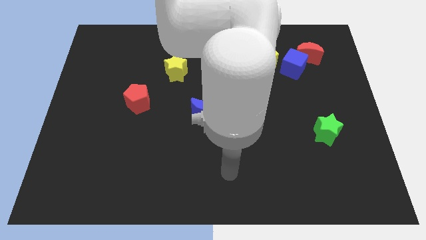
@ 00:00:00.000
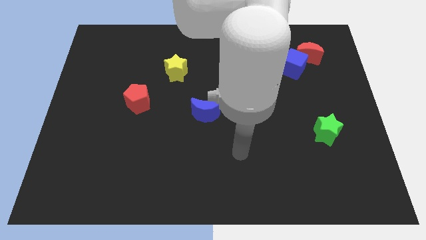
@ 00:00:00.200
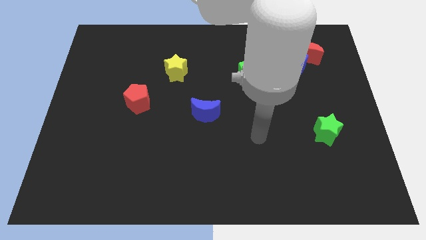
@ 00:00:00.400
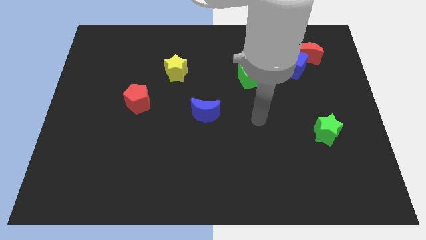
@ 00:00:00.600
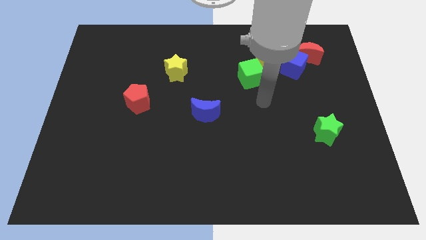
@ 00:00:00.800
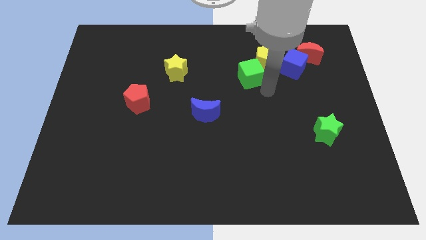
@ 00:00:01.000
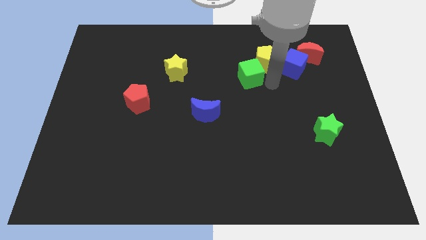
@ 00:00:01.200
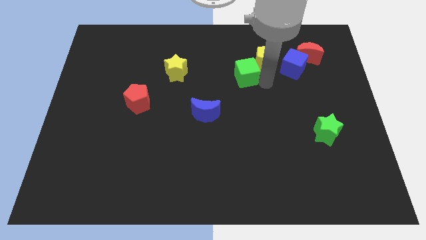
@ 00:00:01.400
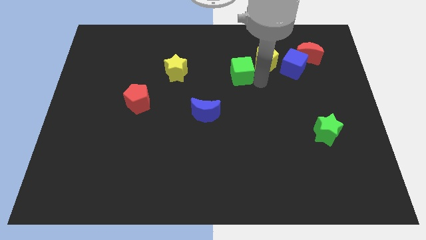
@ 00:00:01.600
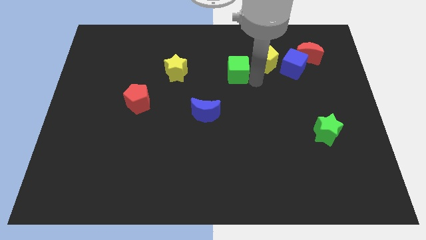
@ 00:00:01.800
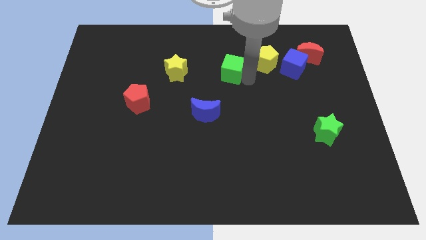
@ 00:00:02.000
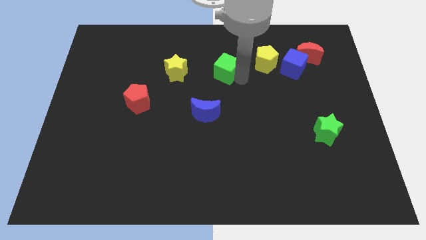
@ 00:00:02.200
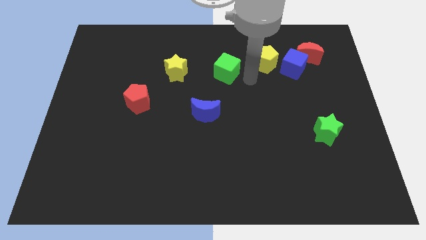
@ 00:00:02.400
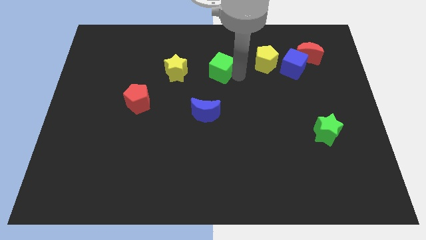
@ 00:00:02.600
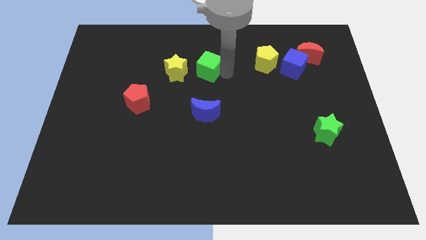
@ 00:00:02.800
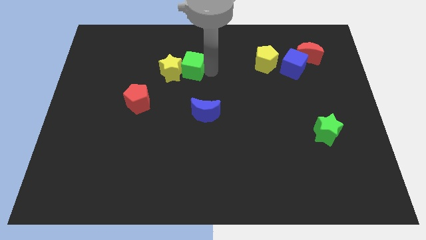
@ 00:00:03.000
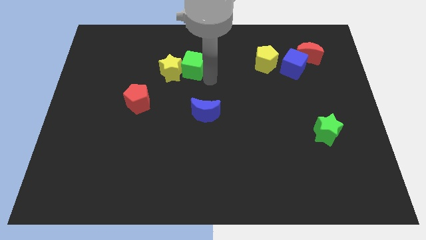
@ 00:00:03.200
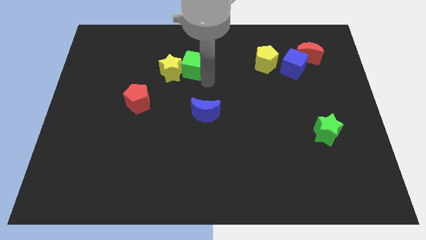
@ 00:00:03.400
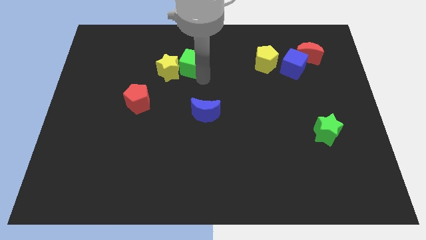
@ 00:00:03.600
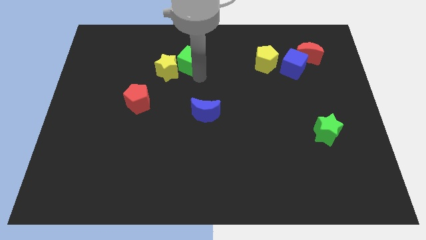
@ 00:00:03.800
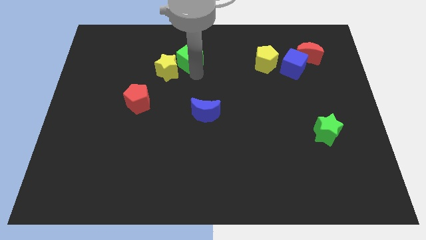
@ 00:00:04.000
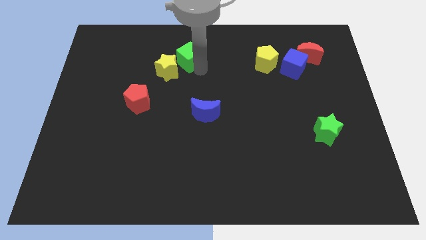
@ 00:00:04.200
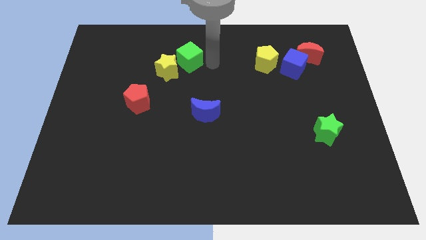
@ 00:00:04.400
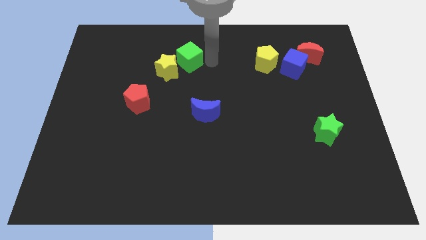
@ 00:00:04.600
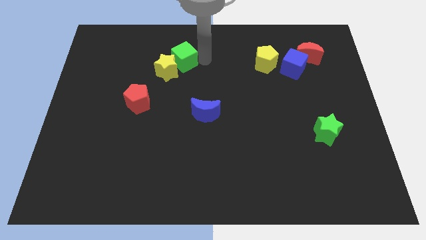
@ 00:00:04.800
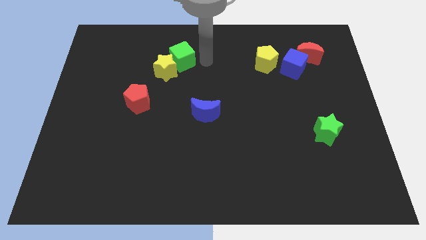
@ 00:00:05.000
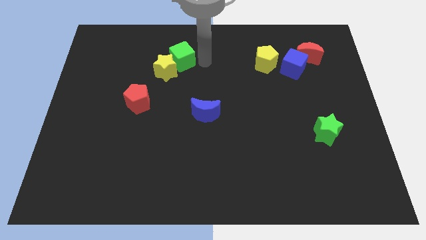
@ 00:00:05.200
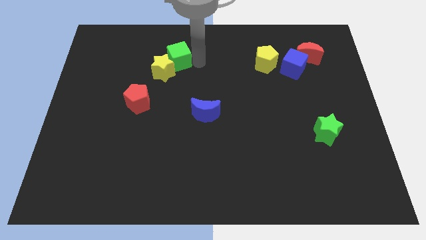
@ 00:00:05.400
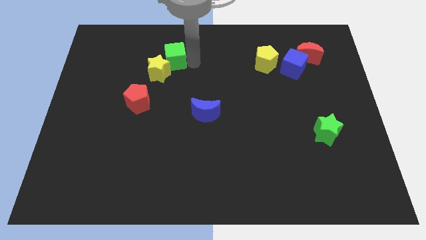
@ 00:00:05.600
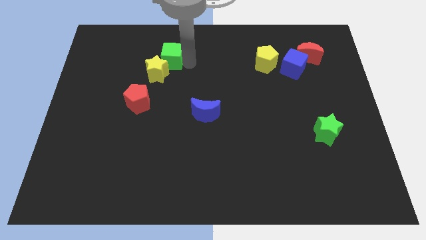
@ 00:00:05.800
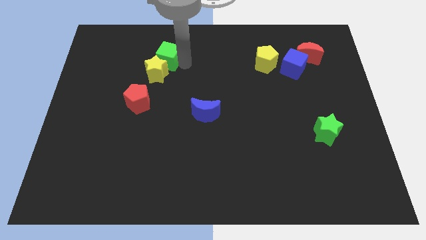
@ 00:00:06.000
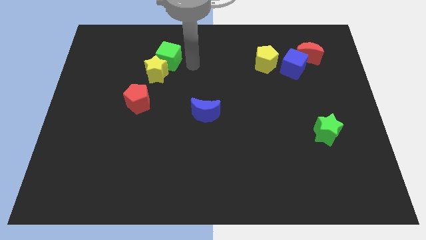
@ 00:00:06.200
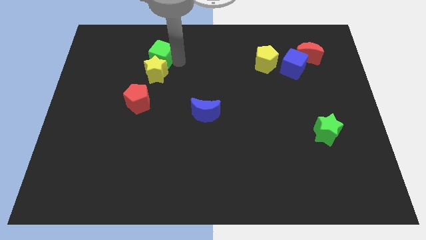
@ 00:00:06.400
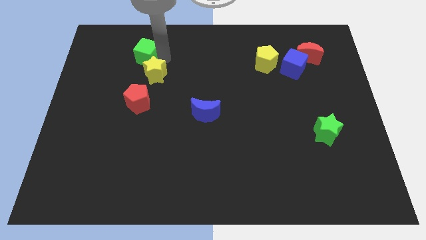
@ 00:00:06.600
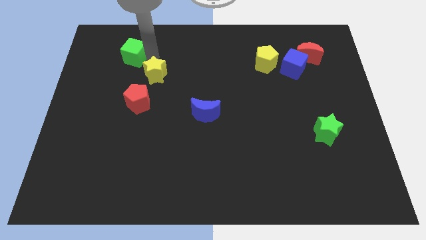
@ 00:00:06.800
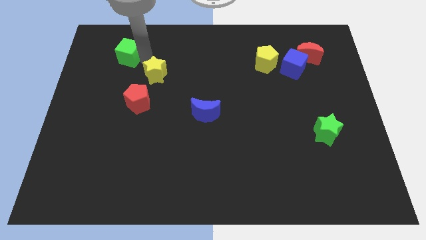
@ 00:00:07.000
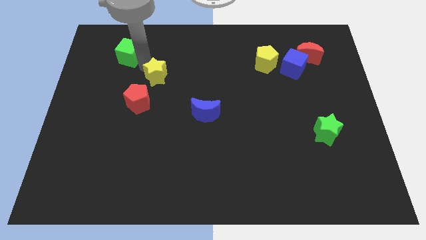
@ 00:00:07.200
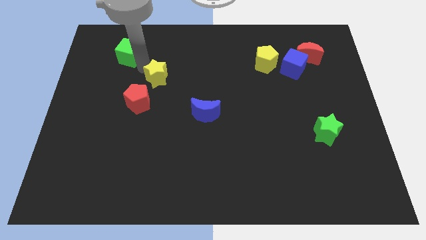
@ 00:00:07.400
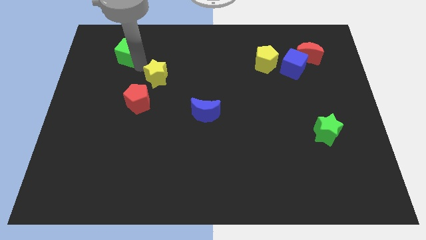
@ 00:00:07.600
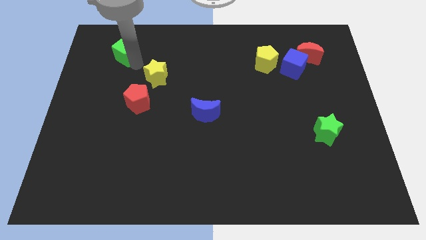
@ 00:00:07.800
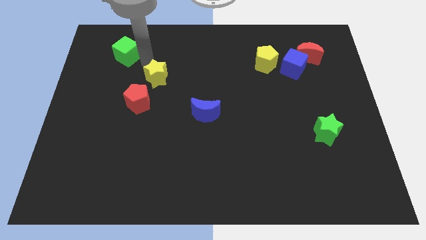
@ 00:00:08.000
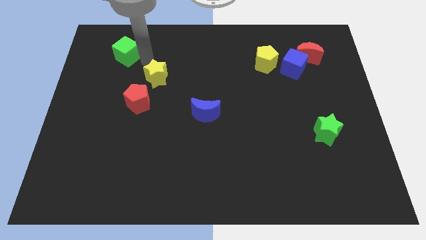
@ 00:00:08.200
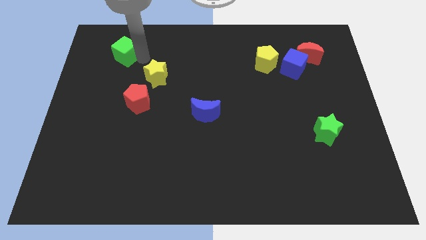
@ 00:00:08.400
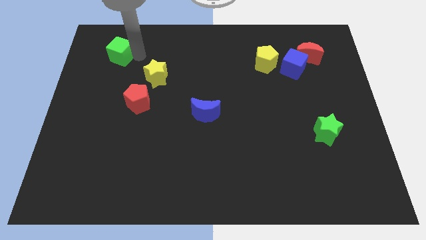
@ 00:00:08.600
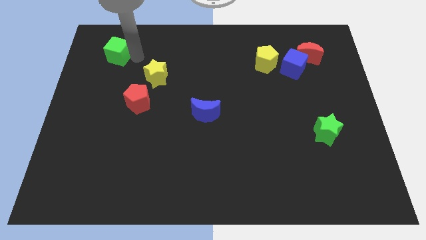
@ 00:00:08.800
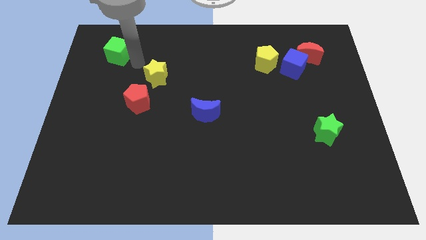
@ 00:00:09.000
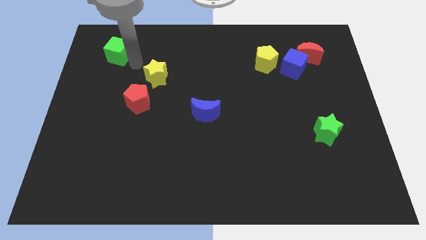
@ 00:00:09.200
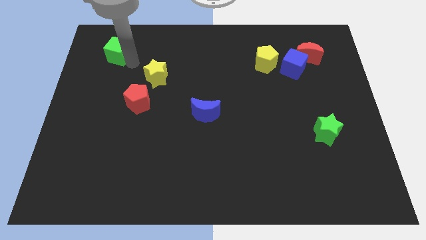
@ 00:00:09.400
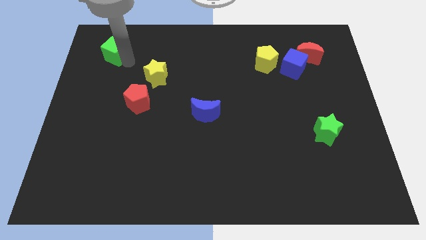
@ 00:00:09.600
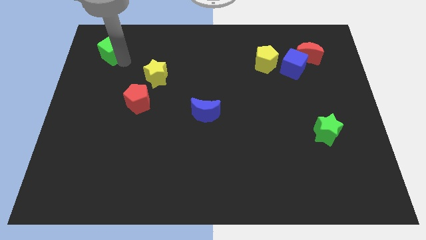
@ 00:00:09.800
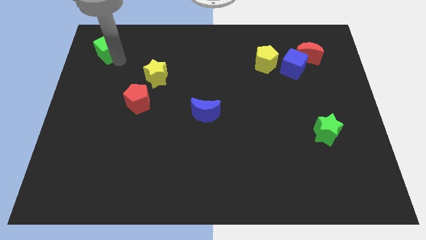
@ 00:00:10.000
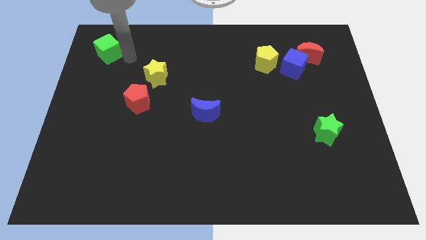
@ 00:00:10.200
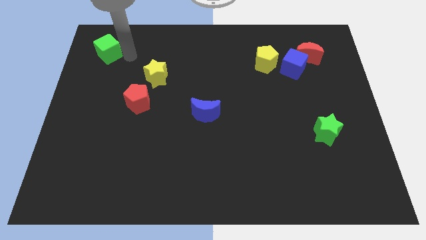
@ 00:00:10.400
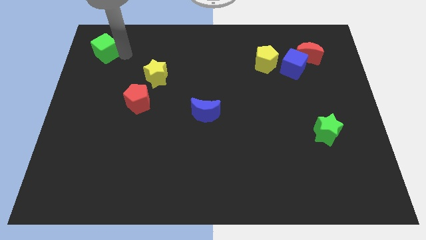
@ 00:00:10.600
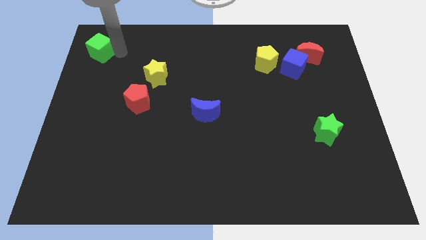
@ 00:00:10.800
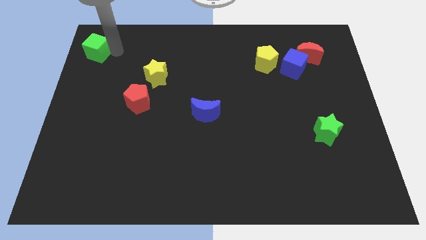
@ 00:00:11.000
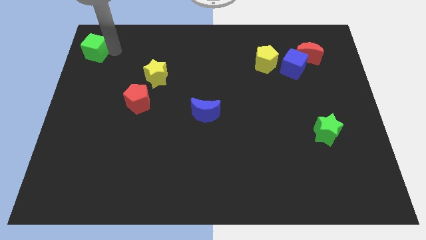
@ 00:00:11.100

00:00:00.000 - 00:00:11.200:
move the green cube to the top left

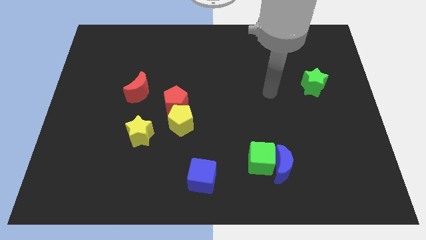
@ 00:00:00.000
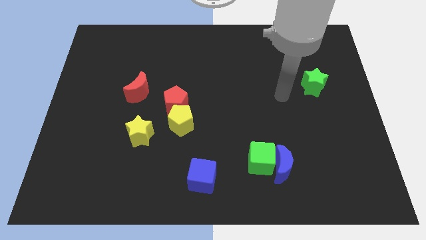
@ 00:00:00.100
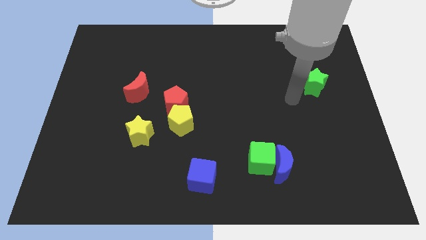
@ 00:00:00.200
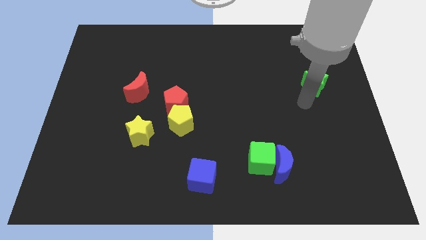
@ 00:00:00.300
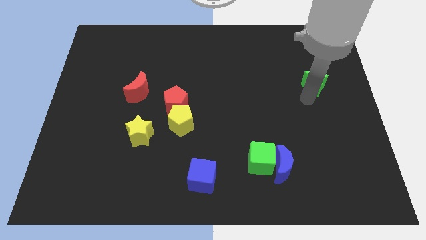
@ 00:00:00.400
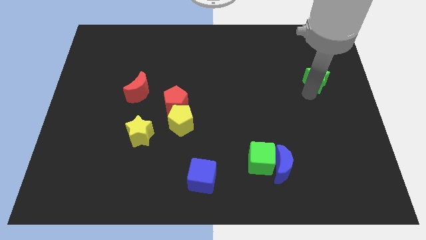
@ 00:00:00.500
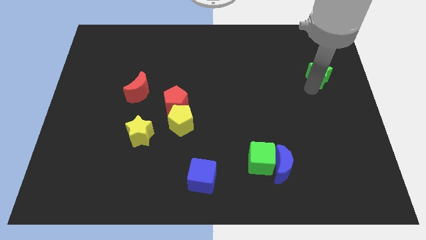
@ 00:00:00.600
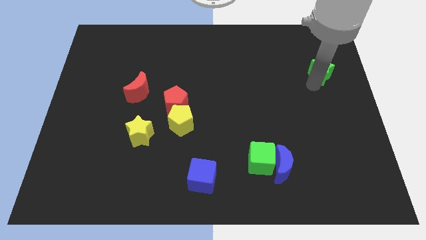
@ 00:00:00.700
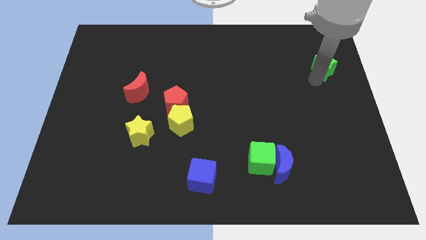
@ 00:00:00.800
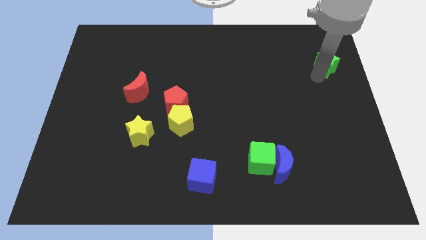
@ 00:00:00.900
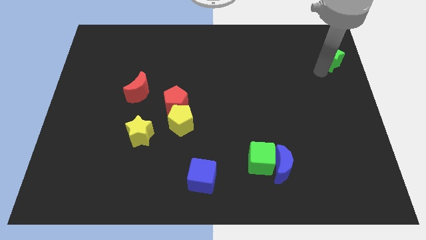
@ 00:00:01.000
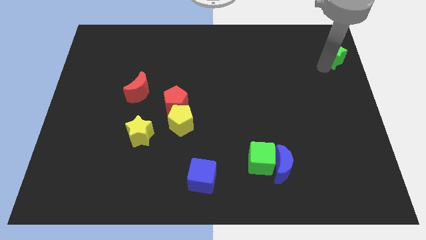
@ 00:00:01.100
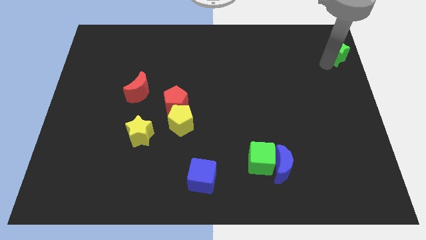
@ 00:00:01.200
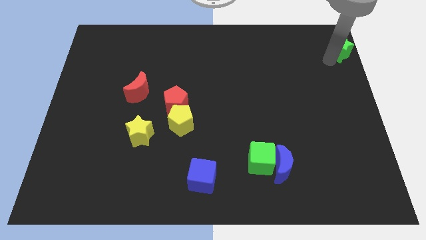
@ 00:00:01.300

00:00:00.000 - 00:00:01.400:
put the green star to the top right

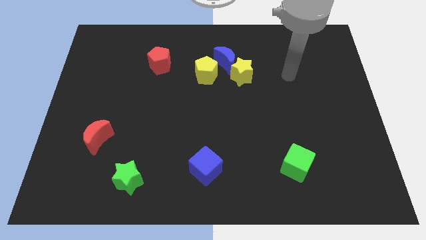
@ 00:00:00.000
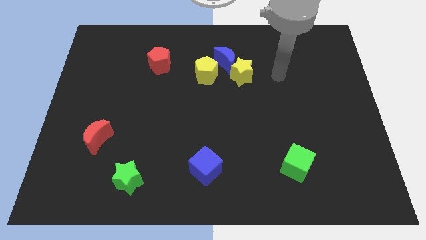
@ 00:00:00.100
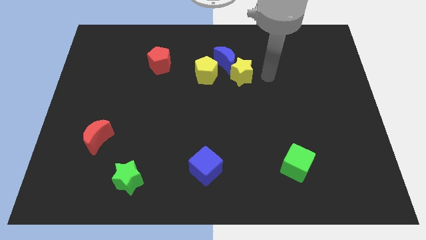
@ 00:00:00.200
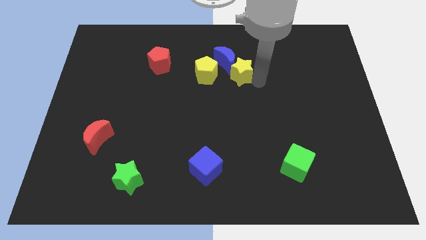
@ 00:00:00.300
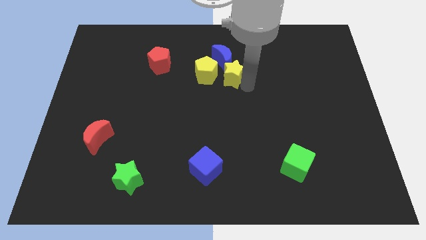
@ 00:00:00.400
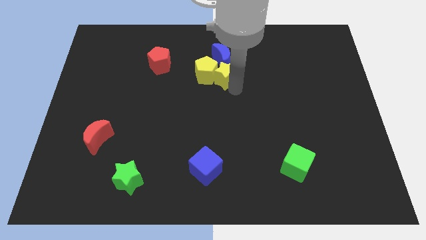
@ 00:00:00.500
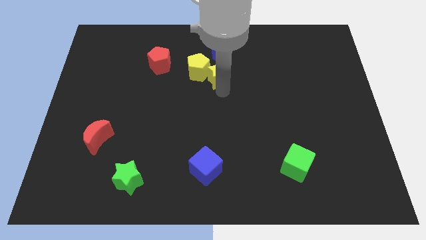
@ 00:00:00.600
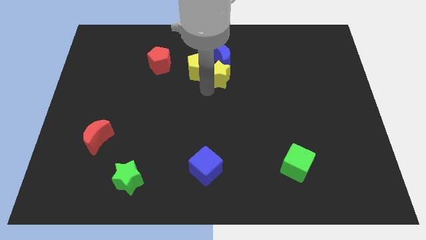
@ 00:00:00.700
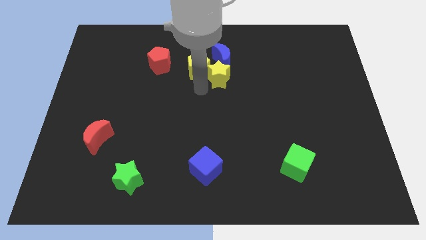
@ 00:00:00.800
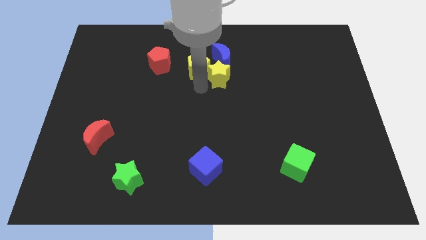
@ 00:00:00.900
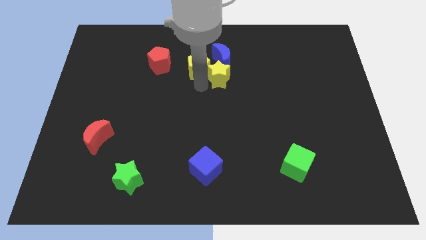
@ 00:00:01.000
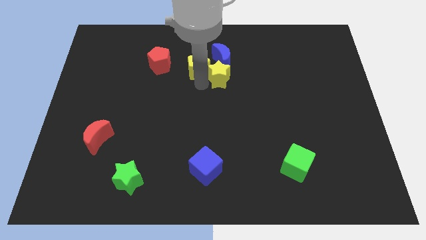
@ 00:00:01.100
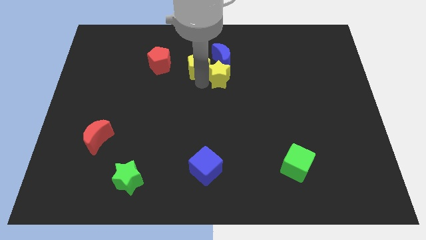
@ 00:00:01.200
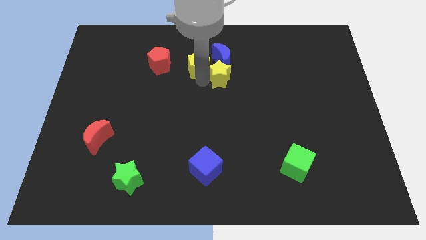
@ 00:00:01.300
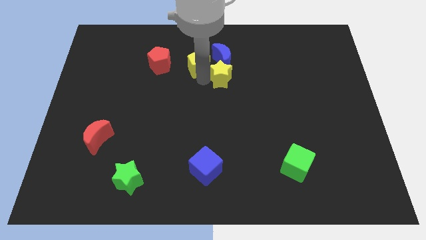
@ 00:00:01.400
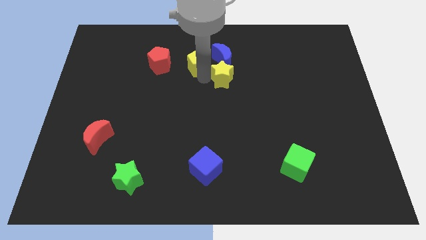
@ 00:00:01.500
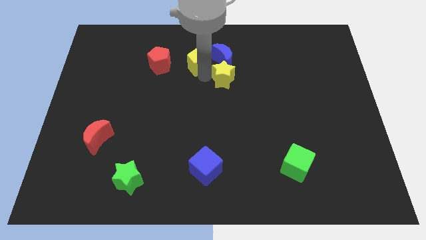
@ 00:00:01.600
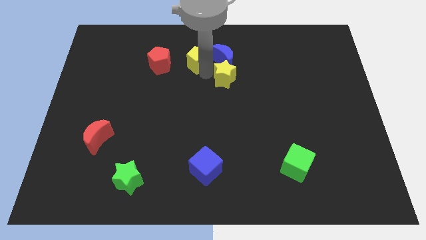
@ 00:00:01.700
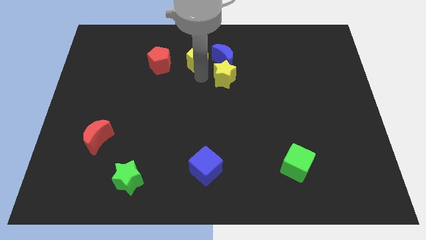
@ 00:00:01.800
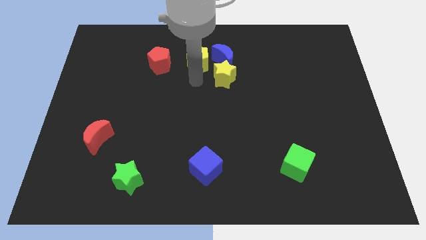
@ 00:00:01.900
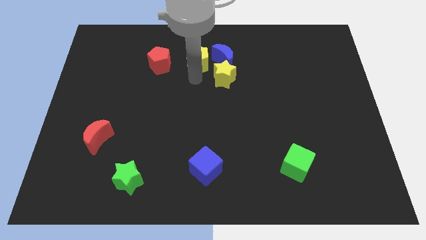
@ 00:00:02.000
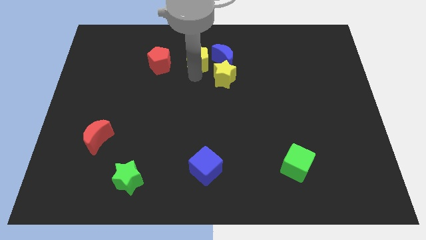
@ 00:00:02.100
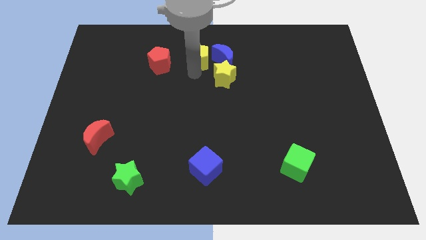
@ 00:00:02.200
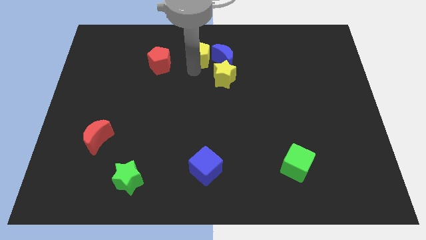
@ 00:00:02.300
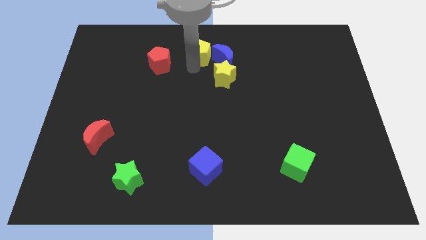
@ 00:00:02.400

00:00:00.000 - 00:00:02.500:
push the yellow pentagon to the top side
